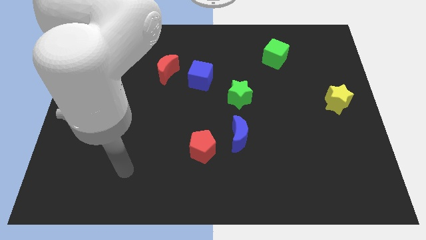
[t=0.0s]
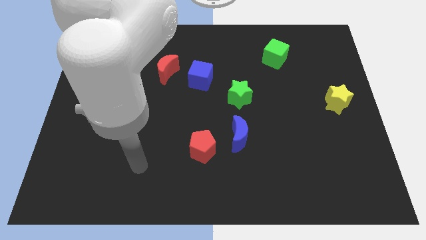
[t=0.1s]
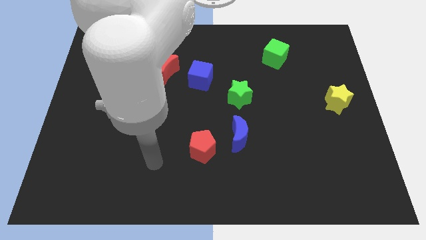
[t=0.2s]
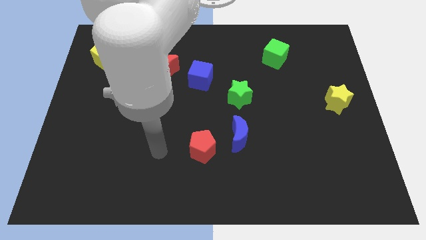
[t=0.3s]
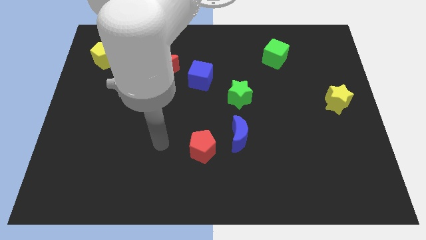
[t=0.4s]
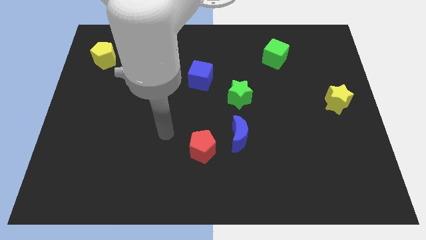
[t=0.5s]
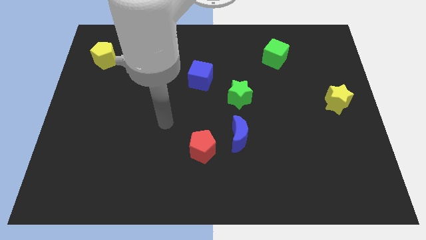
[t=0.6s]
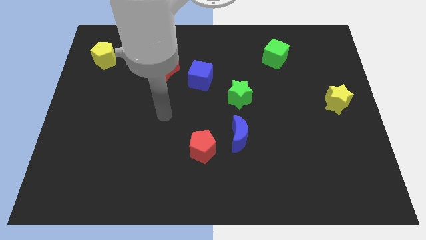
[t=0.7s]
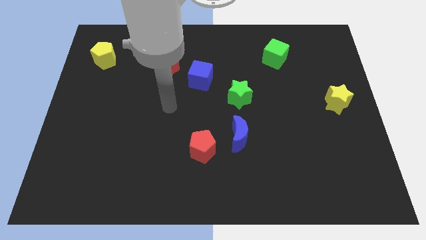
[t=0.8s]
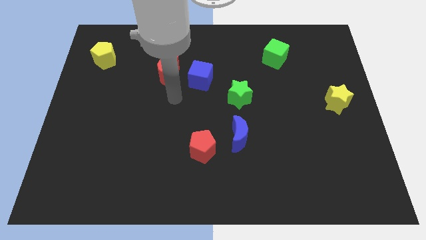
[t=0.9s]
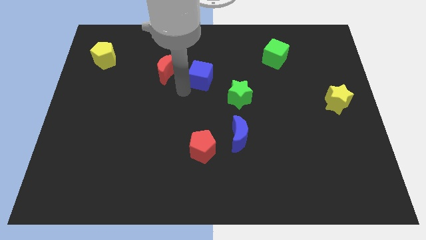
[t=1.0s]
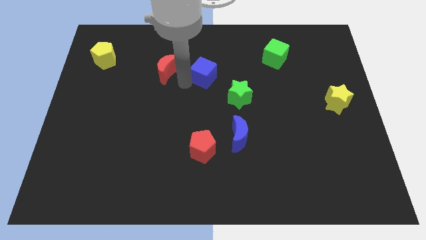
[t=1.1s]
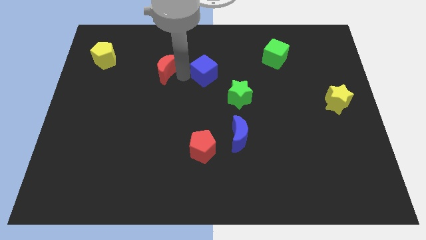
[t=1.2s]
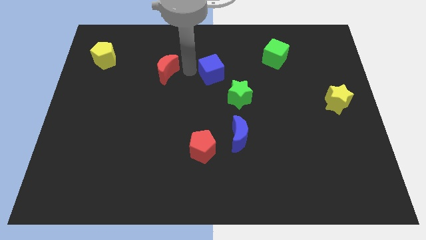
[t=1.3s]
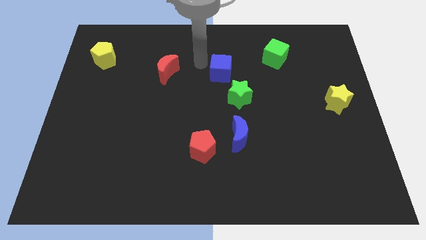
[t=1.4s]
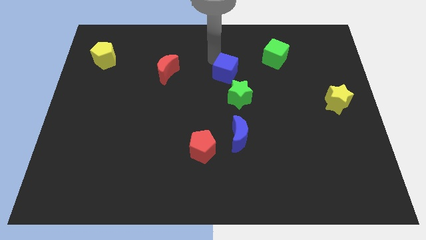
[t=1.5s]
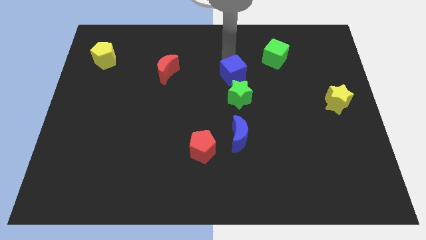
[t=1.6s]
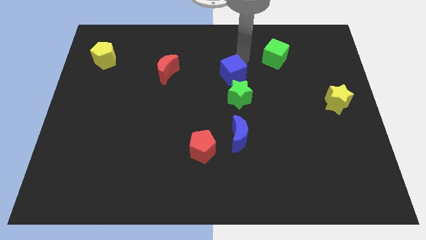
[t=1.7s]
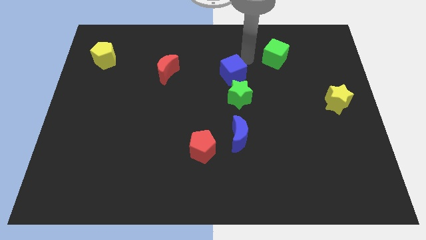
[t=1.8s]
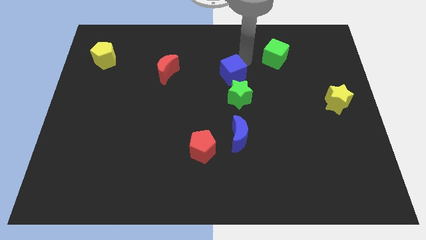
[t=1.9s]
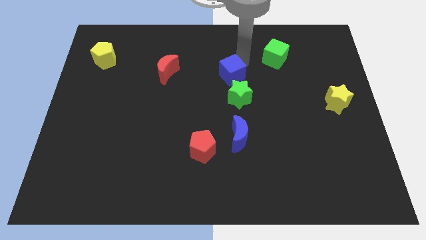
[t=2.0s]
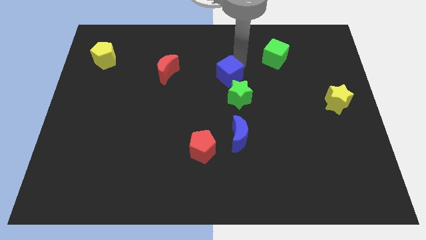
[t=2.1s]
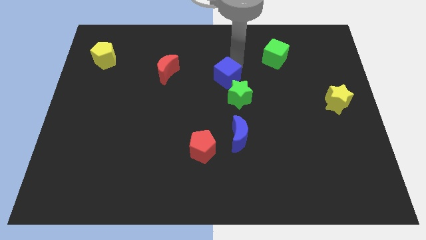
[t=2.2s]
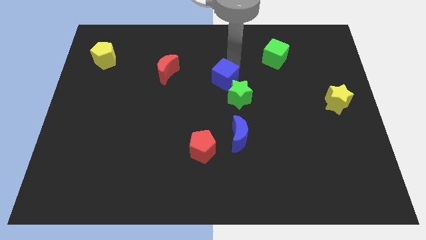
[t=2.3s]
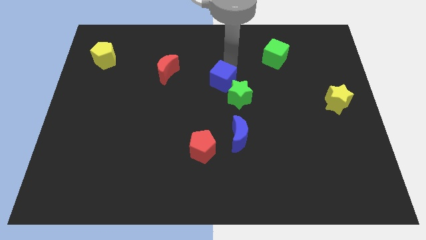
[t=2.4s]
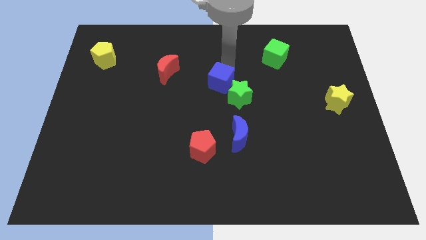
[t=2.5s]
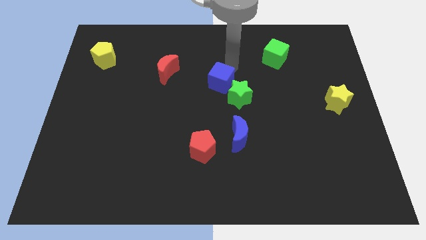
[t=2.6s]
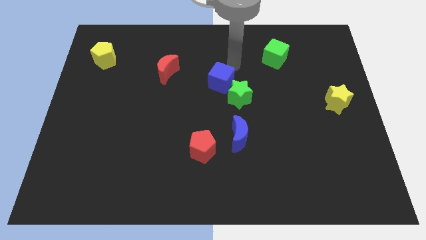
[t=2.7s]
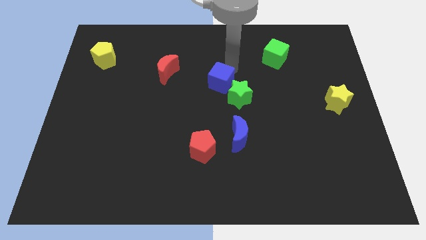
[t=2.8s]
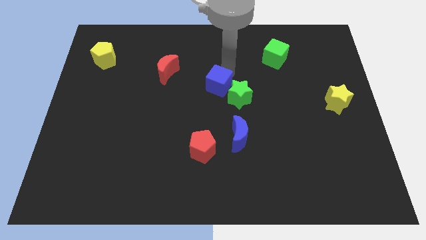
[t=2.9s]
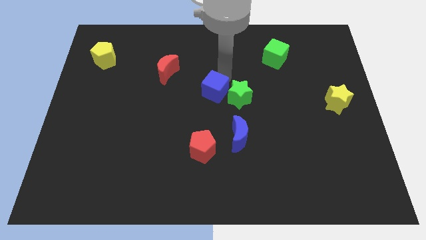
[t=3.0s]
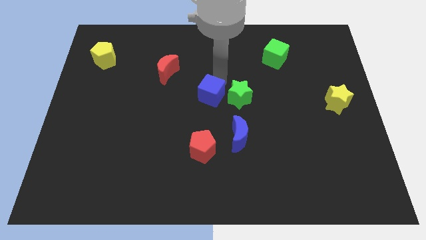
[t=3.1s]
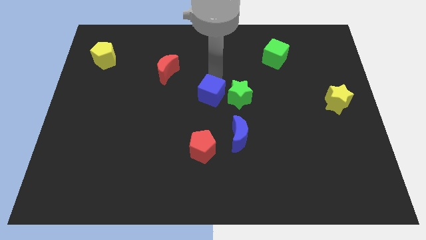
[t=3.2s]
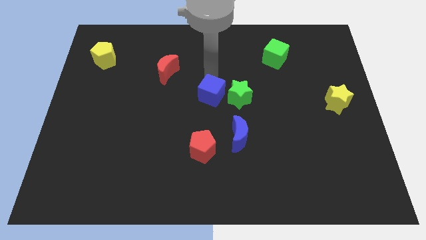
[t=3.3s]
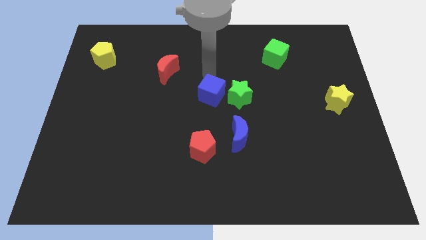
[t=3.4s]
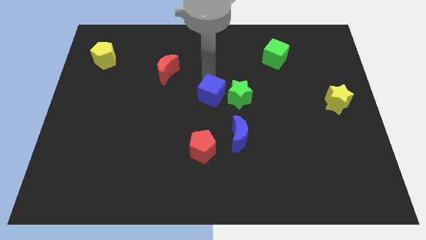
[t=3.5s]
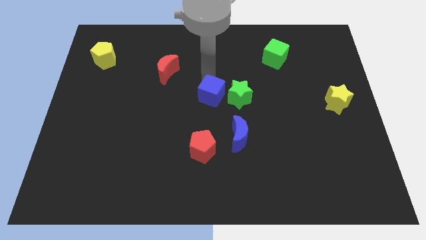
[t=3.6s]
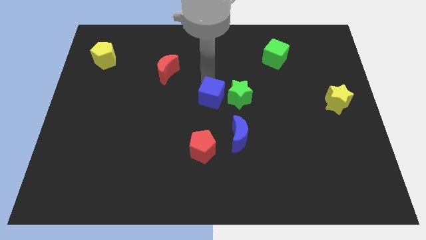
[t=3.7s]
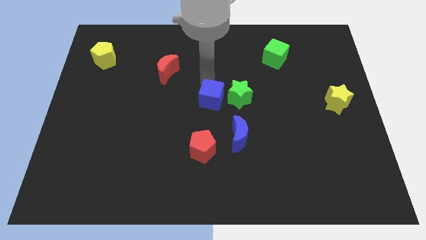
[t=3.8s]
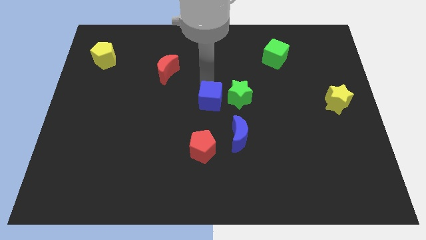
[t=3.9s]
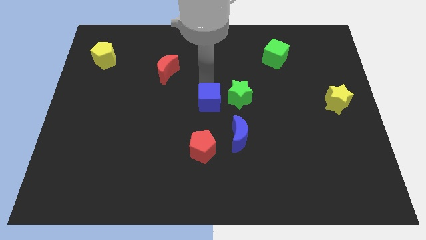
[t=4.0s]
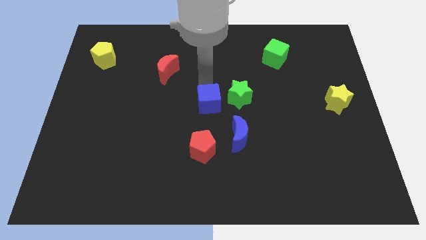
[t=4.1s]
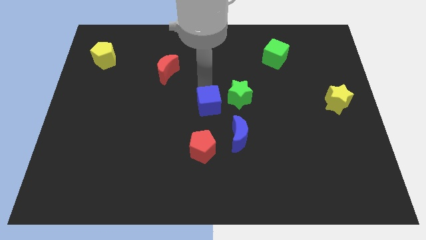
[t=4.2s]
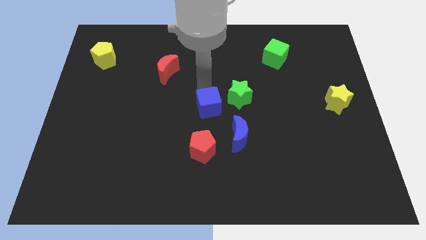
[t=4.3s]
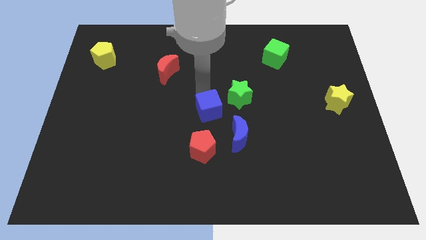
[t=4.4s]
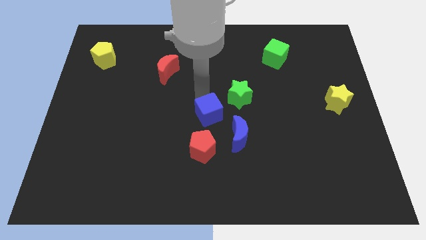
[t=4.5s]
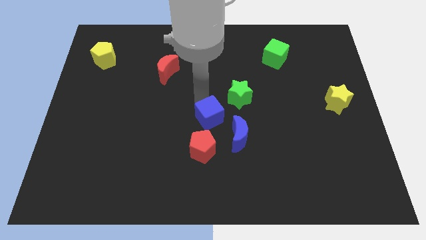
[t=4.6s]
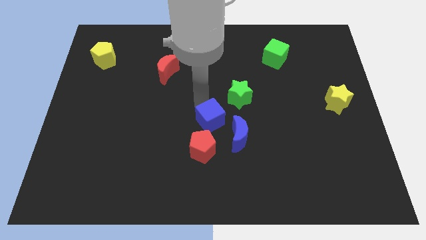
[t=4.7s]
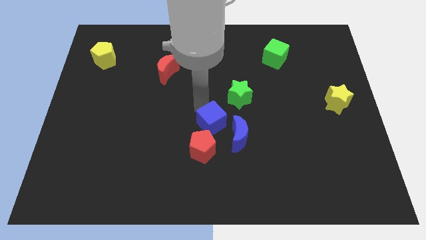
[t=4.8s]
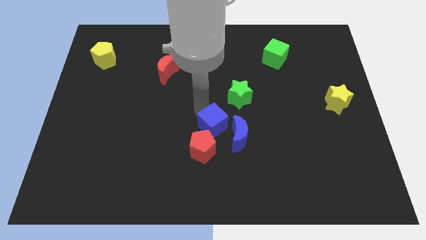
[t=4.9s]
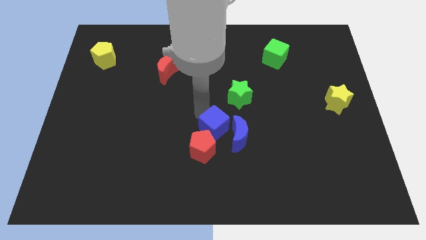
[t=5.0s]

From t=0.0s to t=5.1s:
put the blue cube close to the blue moon

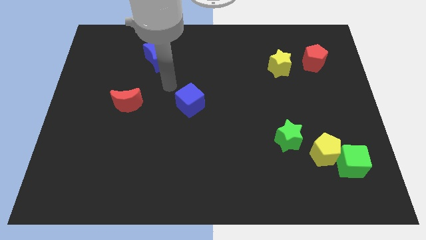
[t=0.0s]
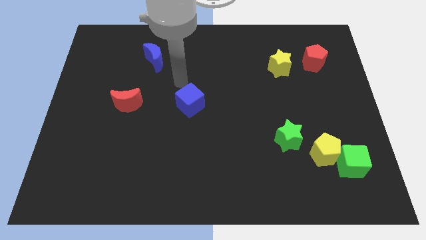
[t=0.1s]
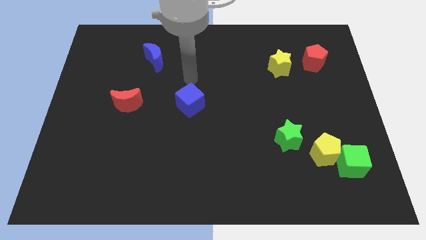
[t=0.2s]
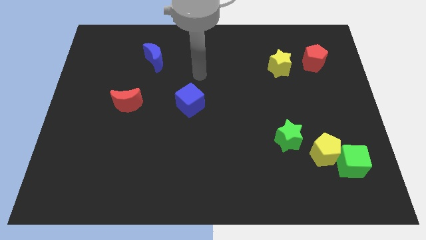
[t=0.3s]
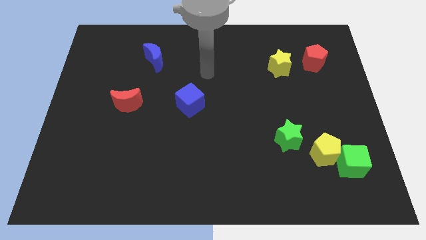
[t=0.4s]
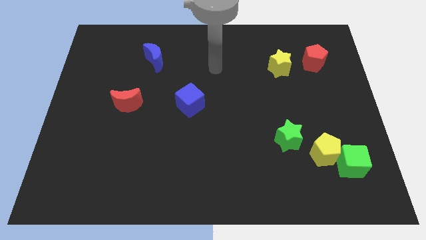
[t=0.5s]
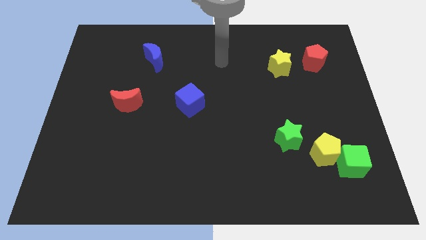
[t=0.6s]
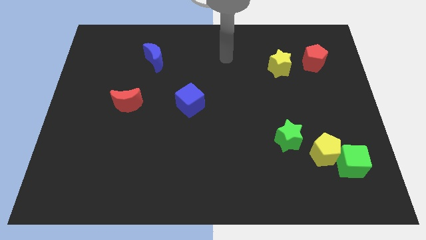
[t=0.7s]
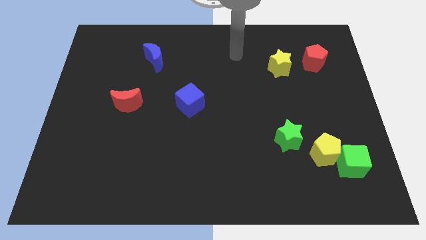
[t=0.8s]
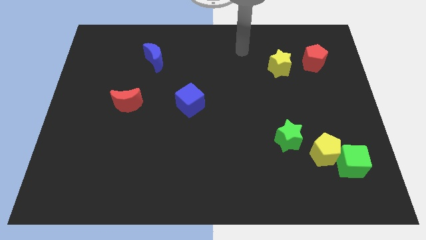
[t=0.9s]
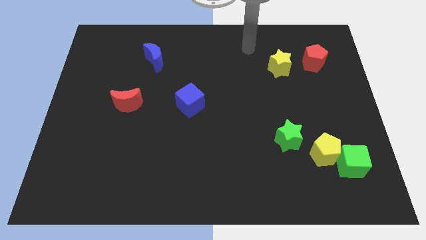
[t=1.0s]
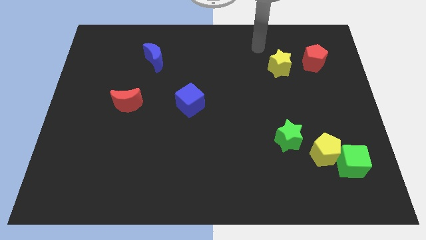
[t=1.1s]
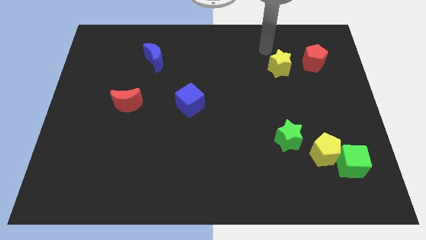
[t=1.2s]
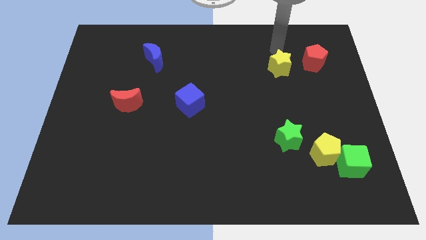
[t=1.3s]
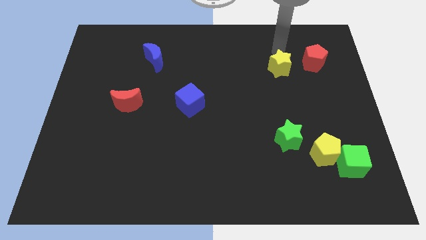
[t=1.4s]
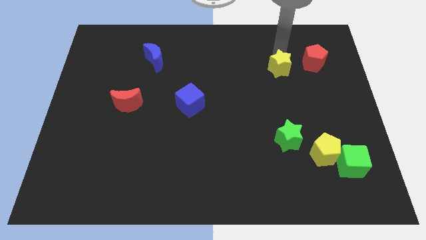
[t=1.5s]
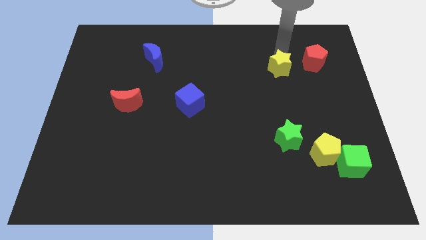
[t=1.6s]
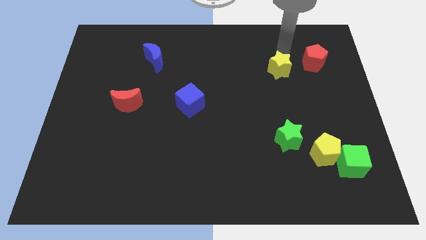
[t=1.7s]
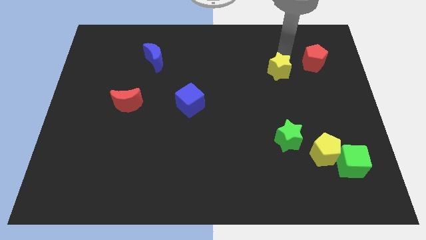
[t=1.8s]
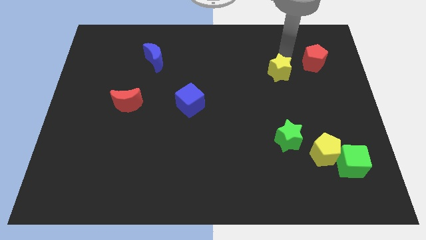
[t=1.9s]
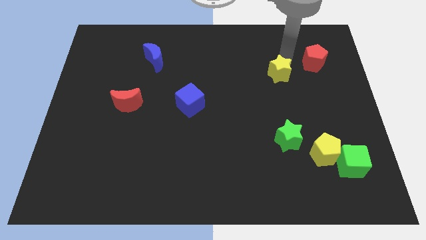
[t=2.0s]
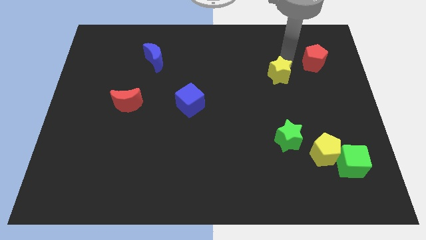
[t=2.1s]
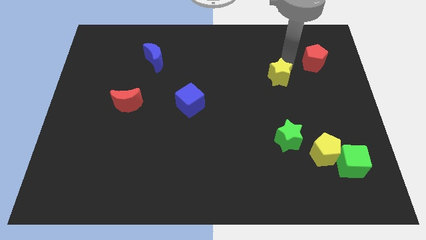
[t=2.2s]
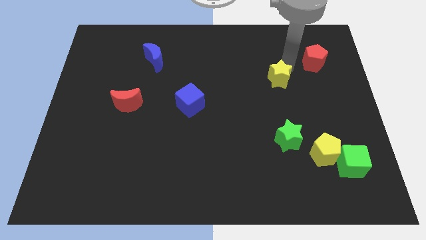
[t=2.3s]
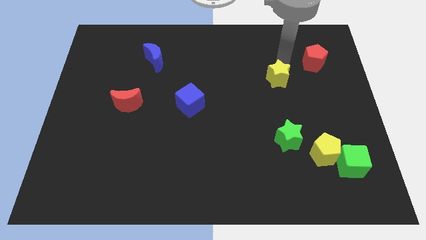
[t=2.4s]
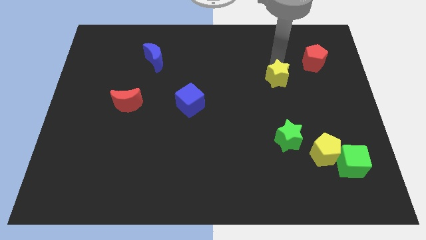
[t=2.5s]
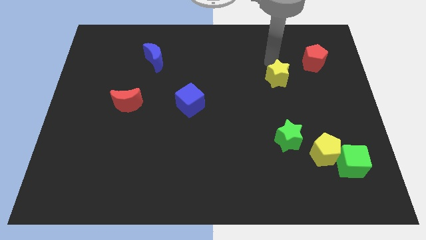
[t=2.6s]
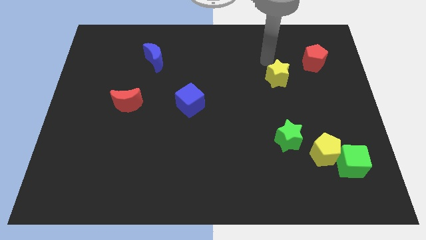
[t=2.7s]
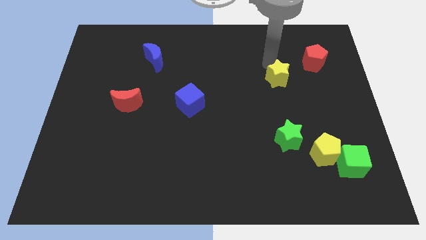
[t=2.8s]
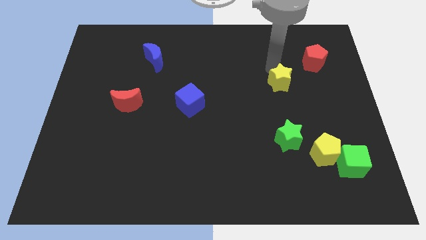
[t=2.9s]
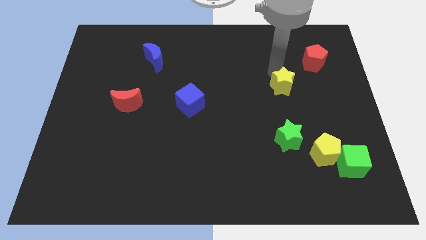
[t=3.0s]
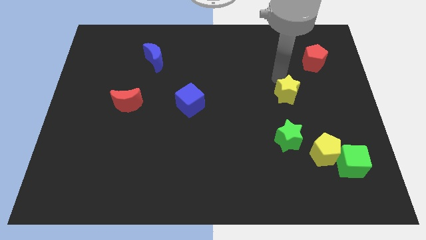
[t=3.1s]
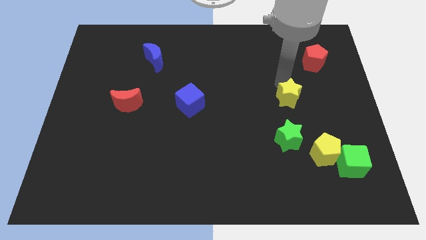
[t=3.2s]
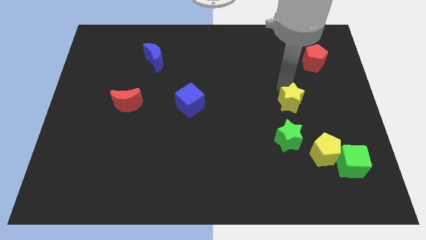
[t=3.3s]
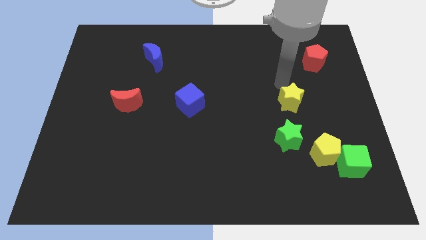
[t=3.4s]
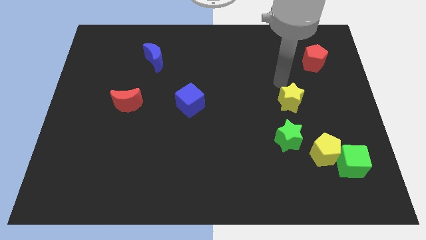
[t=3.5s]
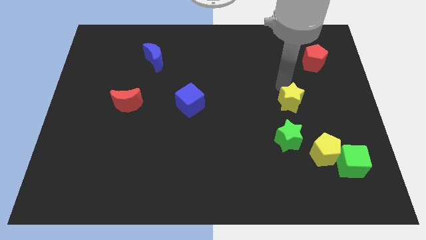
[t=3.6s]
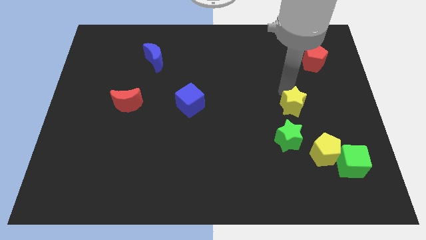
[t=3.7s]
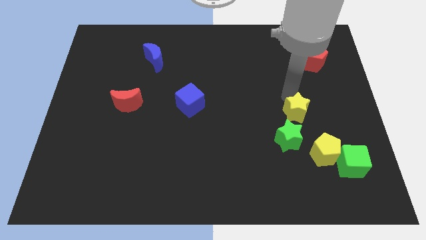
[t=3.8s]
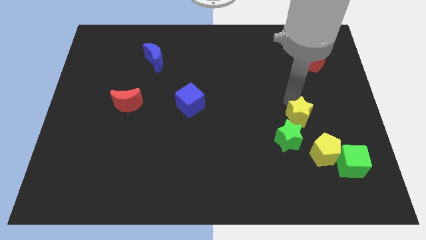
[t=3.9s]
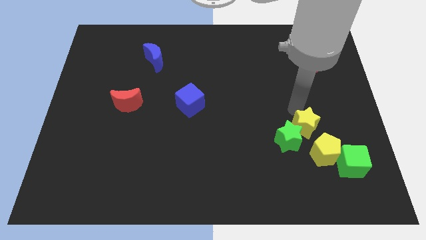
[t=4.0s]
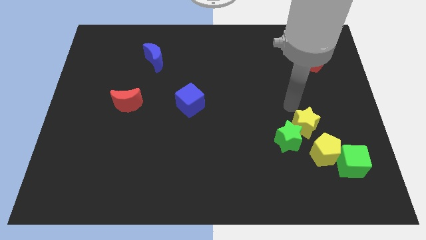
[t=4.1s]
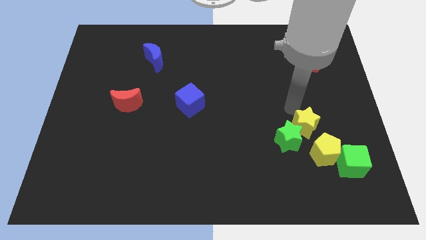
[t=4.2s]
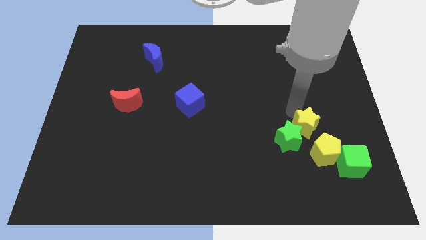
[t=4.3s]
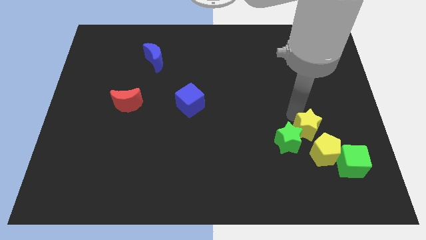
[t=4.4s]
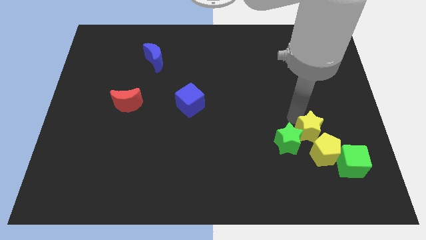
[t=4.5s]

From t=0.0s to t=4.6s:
slide the yellow star close to the yellow pentagon
